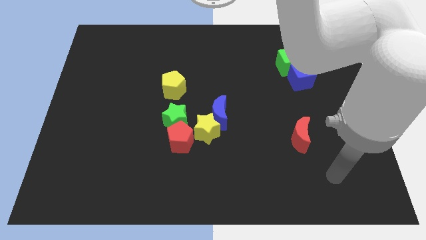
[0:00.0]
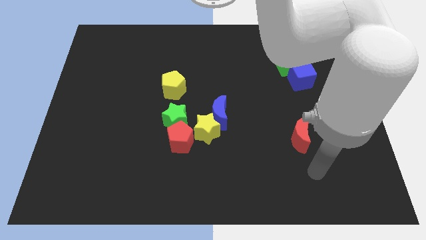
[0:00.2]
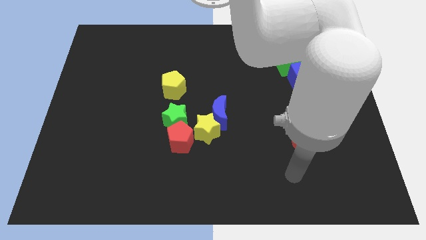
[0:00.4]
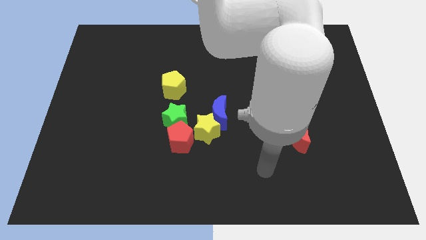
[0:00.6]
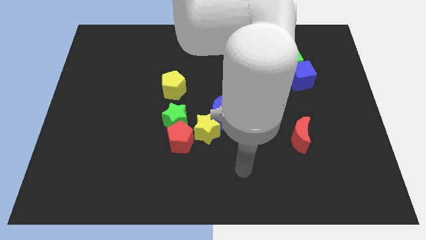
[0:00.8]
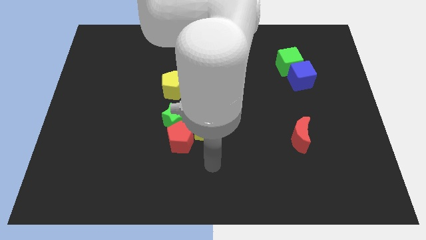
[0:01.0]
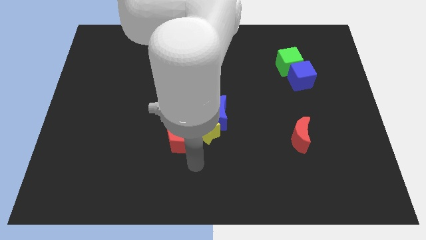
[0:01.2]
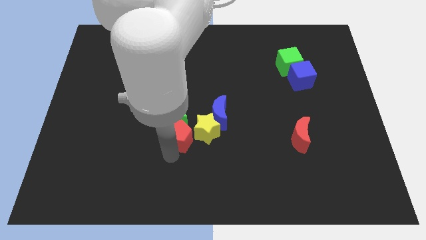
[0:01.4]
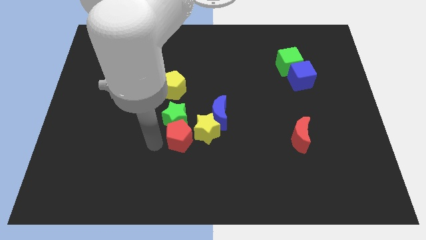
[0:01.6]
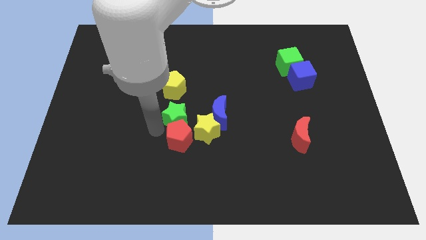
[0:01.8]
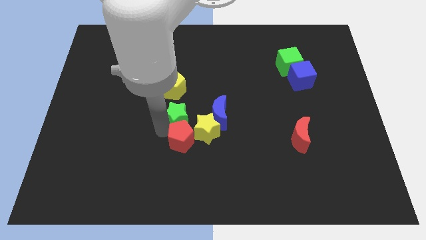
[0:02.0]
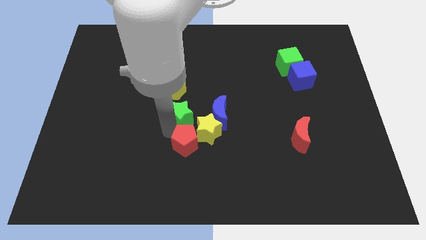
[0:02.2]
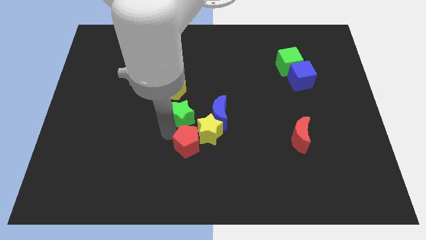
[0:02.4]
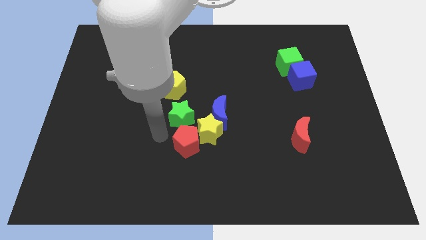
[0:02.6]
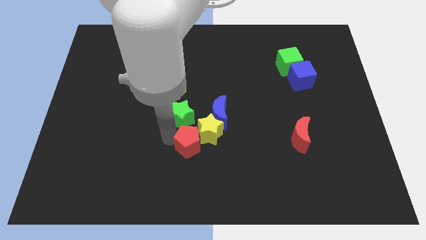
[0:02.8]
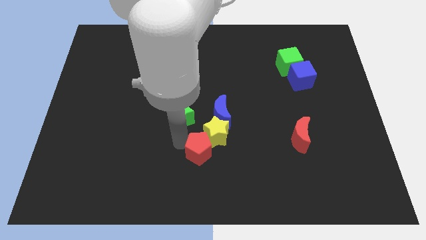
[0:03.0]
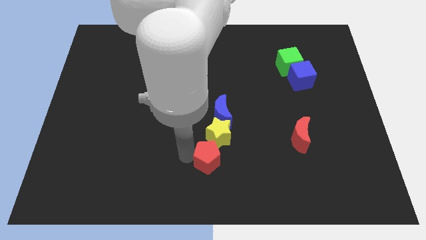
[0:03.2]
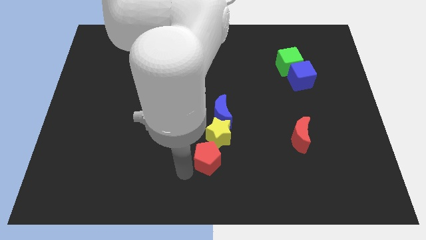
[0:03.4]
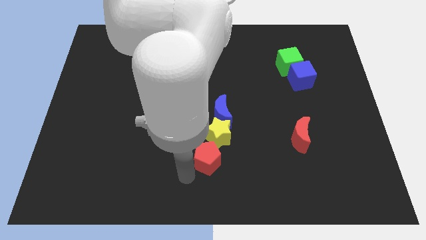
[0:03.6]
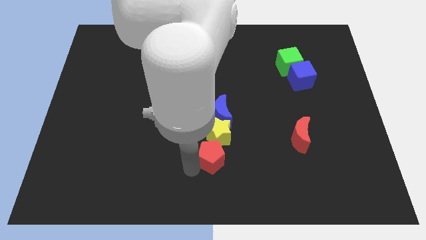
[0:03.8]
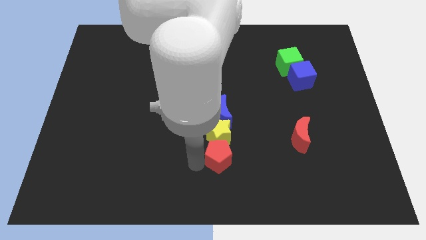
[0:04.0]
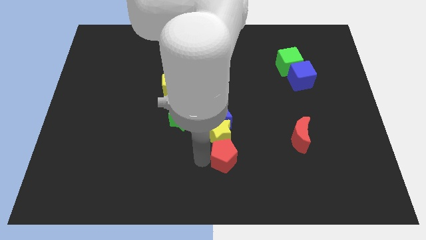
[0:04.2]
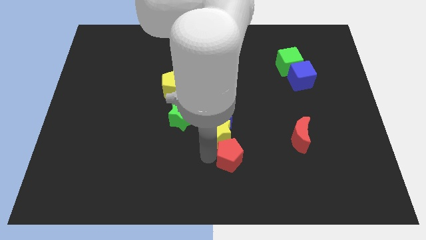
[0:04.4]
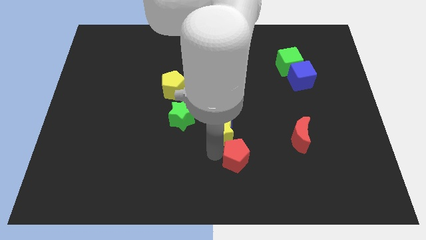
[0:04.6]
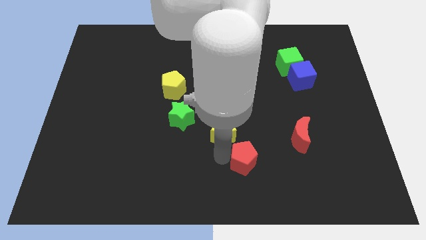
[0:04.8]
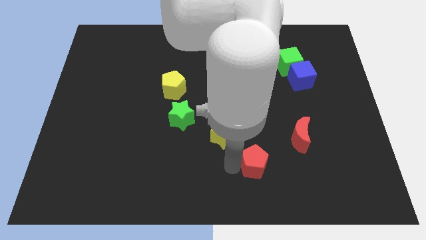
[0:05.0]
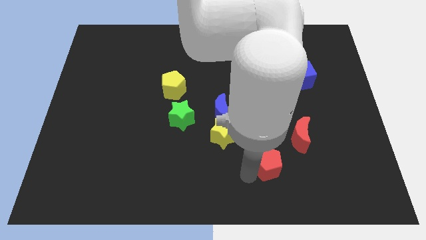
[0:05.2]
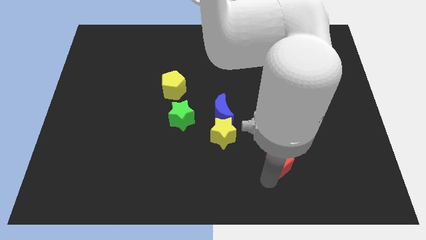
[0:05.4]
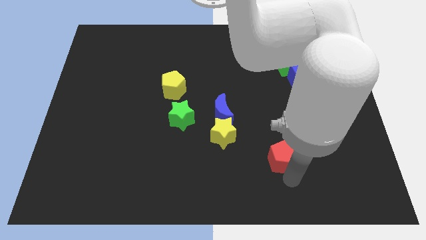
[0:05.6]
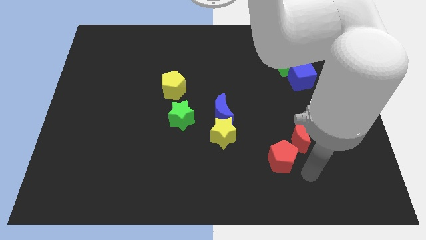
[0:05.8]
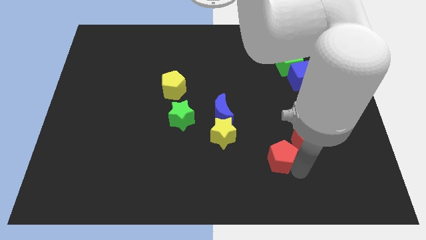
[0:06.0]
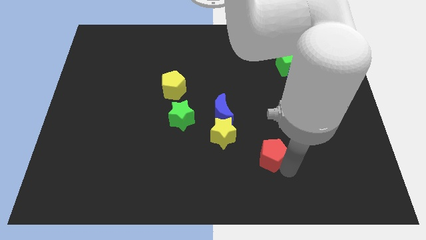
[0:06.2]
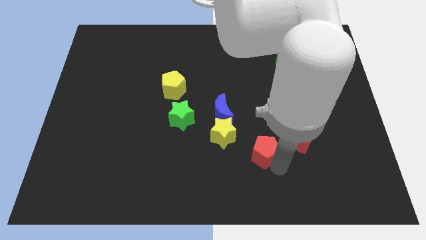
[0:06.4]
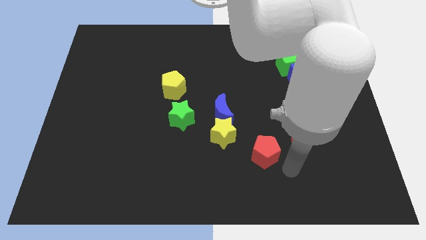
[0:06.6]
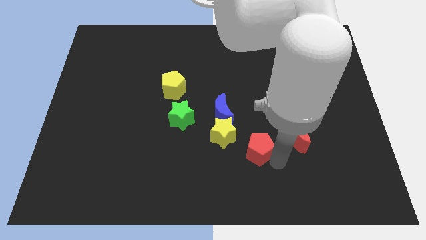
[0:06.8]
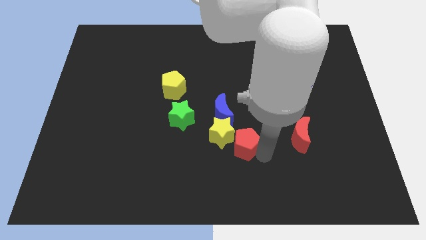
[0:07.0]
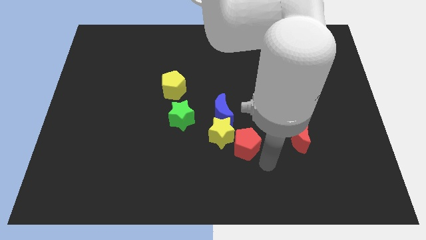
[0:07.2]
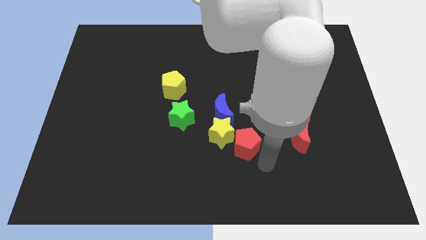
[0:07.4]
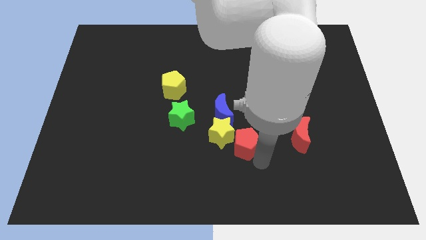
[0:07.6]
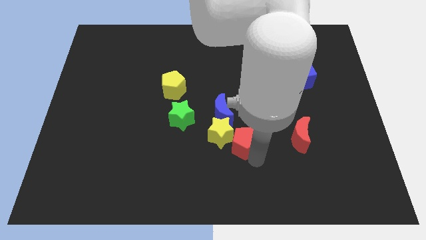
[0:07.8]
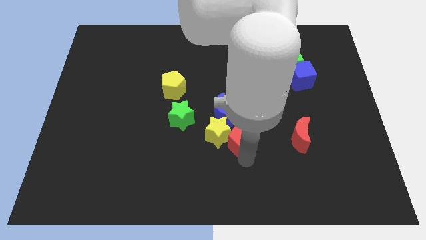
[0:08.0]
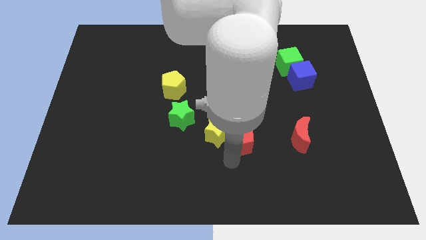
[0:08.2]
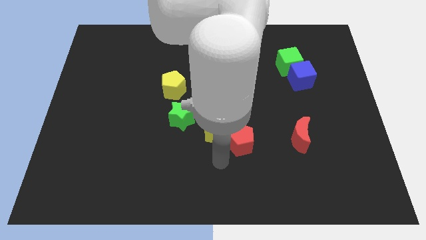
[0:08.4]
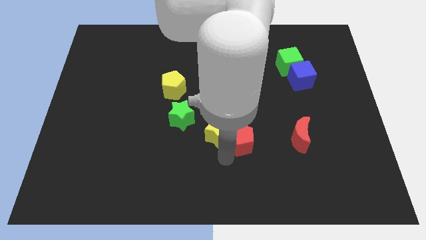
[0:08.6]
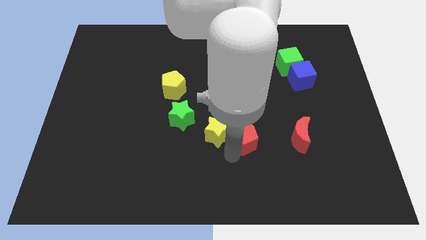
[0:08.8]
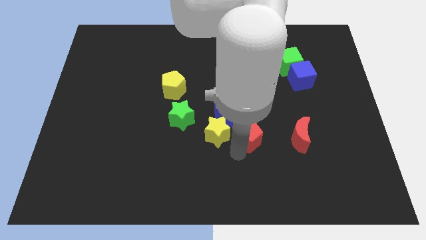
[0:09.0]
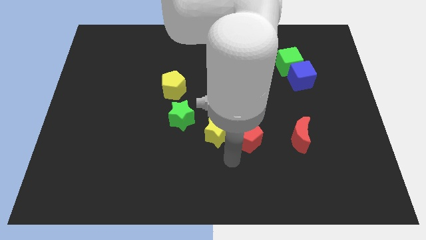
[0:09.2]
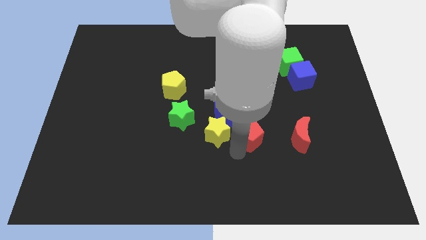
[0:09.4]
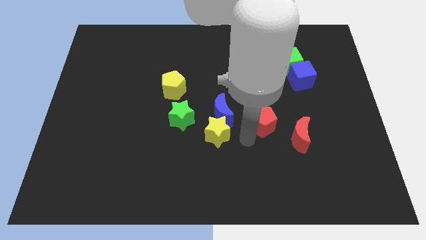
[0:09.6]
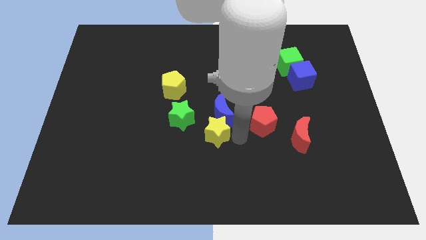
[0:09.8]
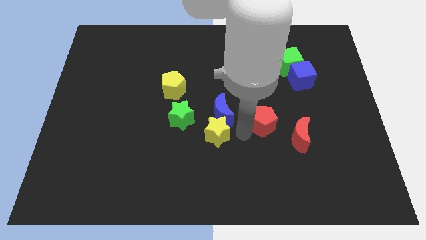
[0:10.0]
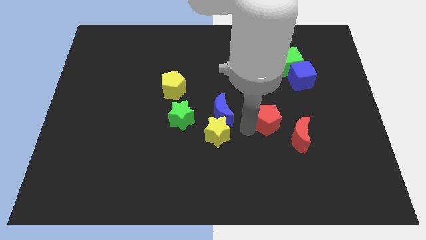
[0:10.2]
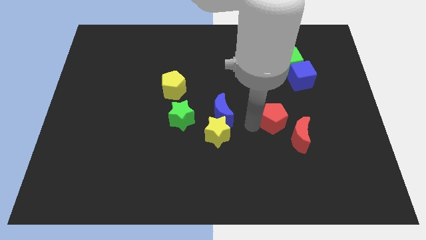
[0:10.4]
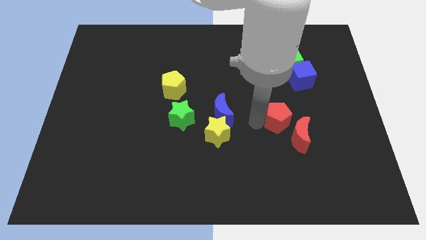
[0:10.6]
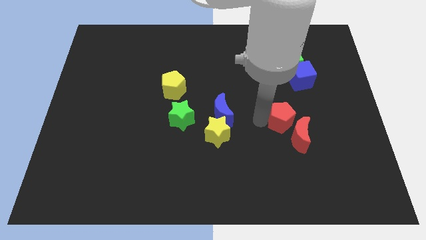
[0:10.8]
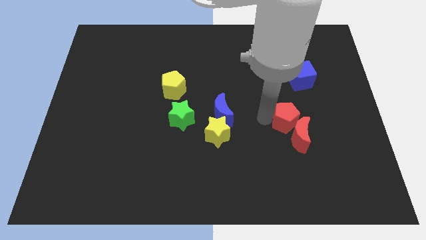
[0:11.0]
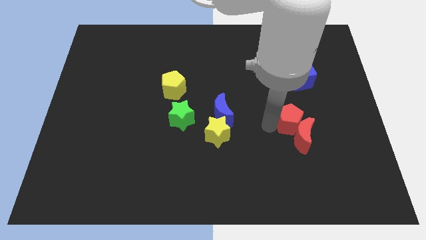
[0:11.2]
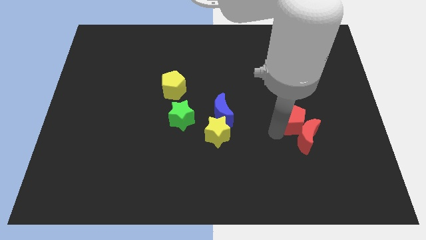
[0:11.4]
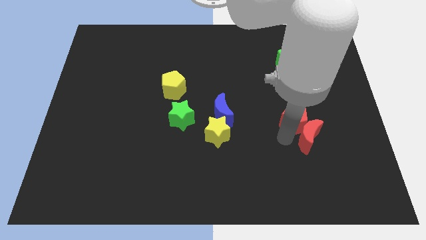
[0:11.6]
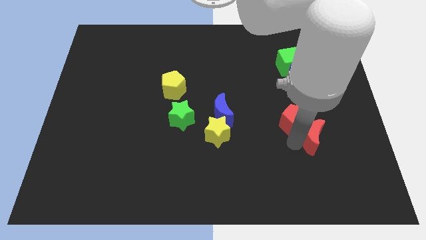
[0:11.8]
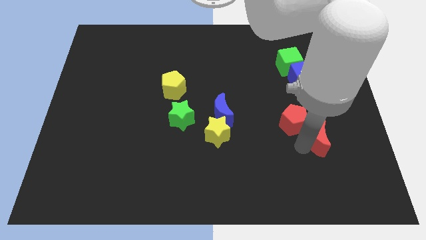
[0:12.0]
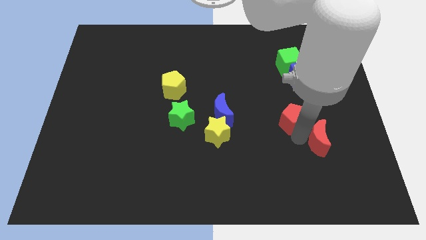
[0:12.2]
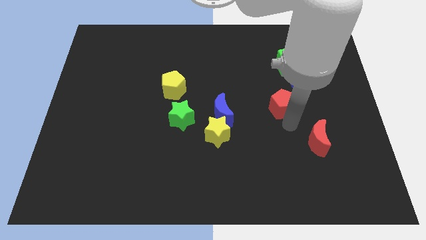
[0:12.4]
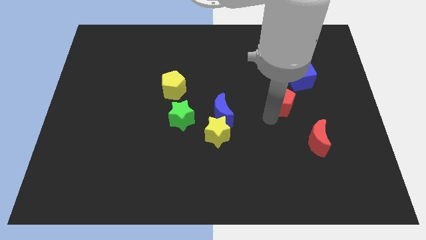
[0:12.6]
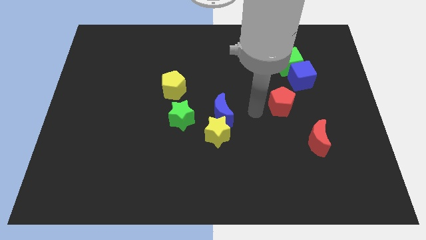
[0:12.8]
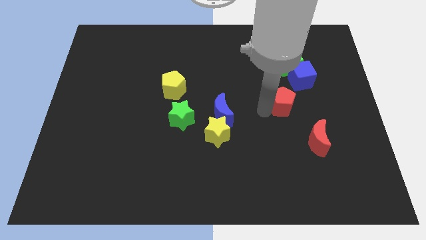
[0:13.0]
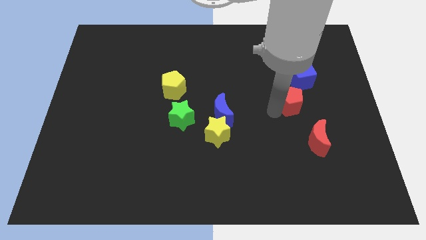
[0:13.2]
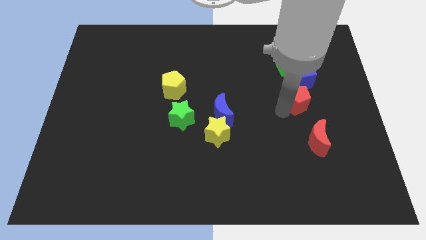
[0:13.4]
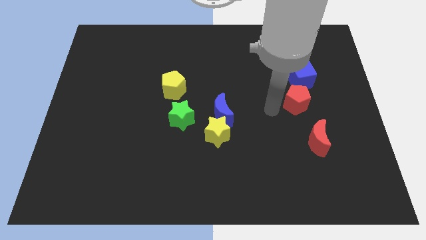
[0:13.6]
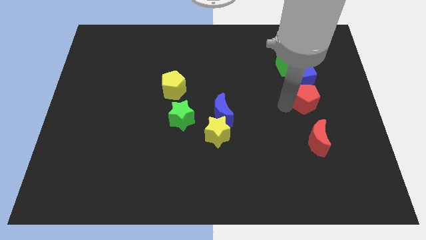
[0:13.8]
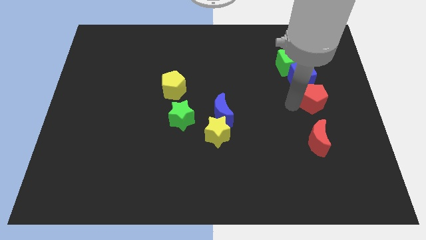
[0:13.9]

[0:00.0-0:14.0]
slide the red pentagon to the bottom right of the blue cube
